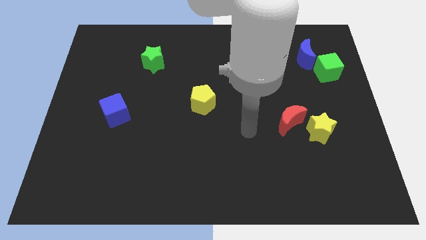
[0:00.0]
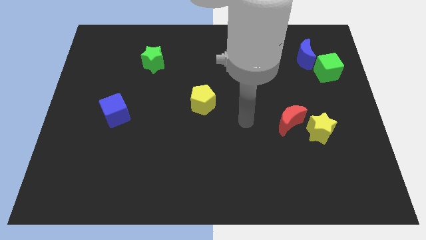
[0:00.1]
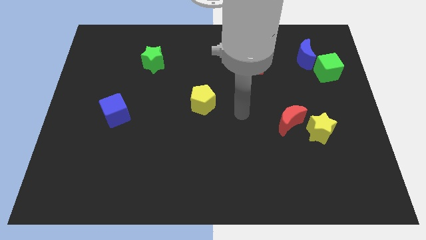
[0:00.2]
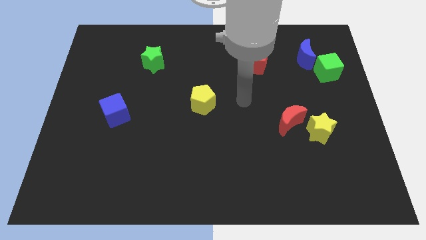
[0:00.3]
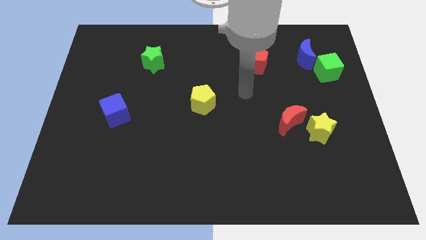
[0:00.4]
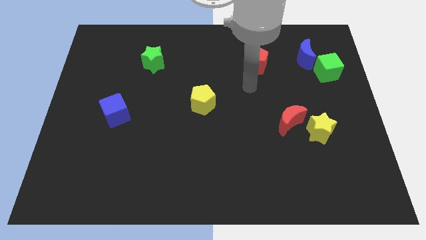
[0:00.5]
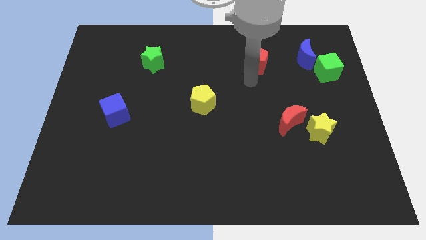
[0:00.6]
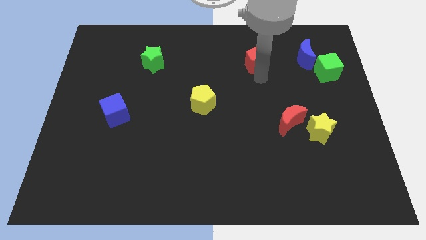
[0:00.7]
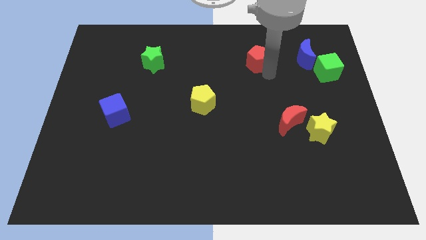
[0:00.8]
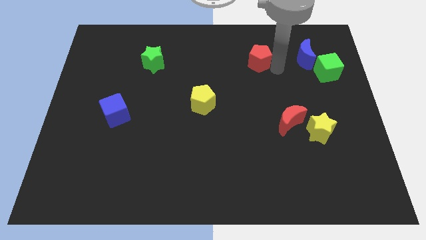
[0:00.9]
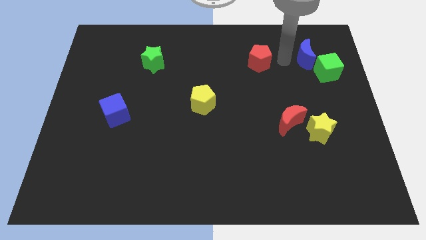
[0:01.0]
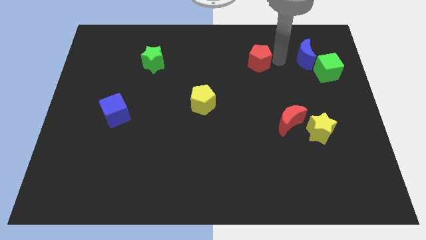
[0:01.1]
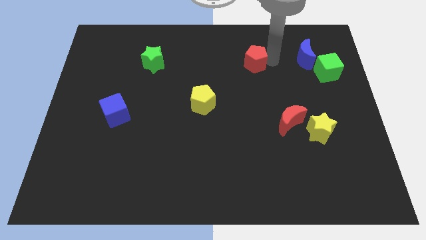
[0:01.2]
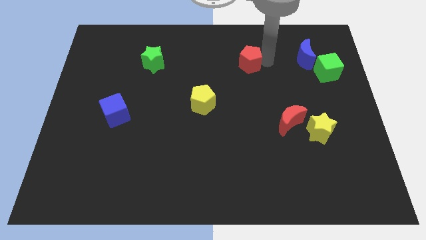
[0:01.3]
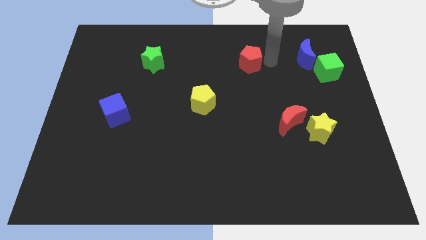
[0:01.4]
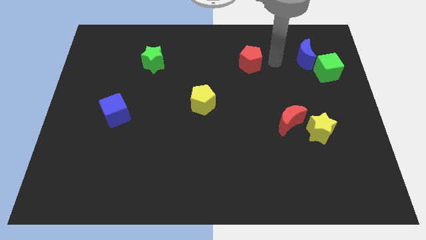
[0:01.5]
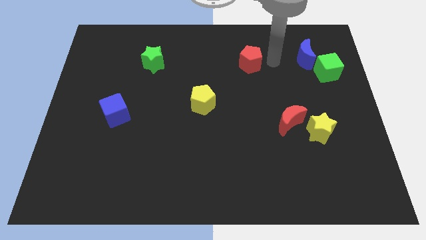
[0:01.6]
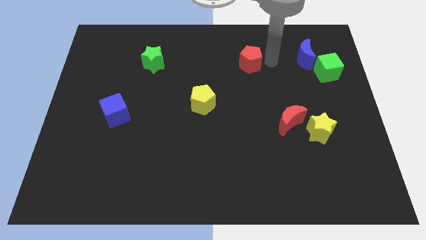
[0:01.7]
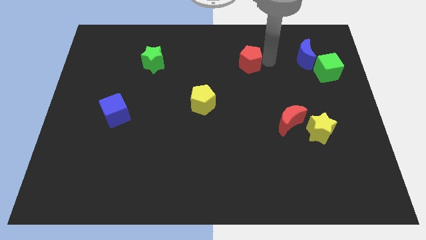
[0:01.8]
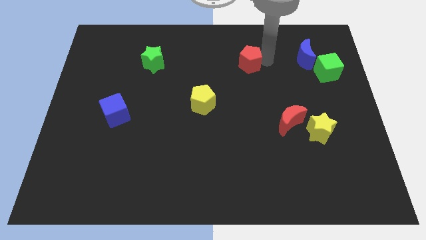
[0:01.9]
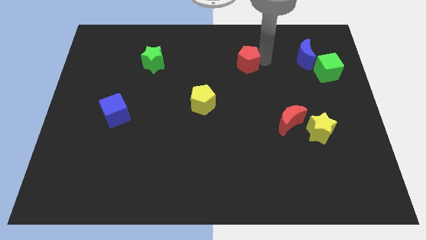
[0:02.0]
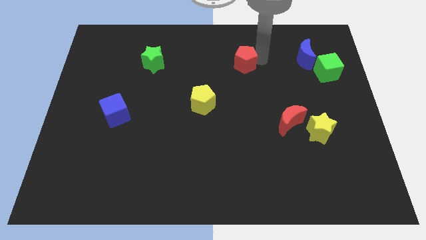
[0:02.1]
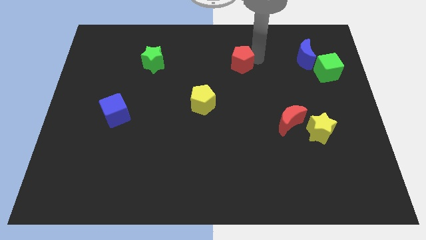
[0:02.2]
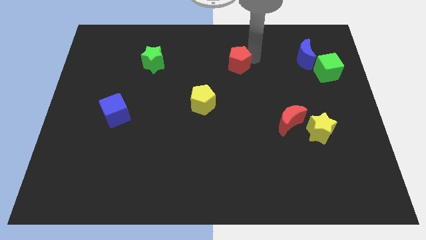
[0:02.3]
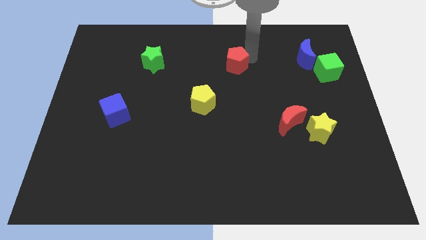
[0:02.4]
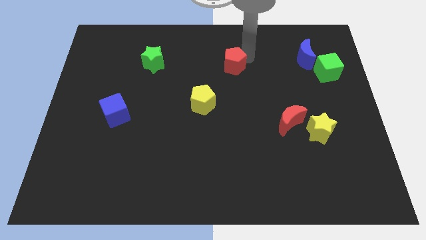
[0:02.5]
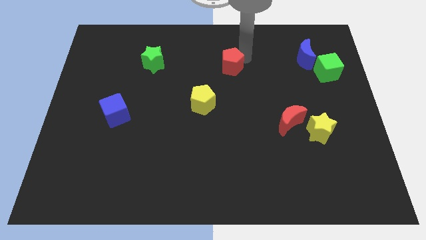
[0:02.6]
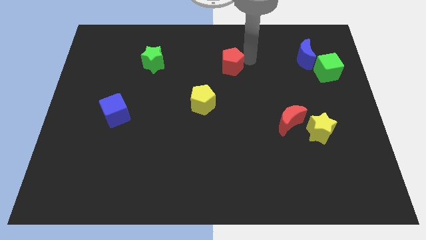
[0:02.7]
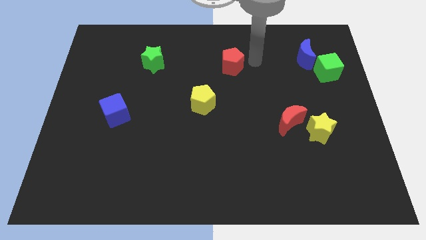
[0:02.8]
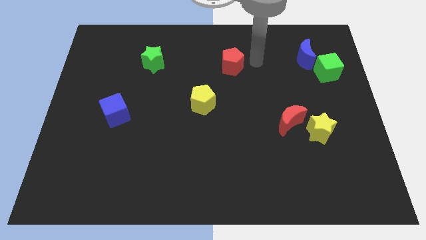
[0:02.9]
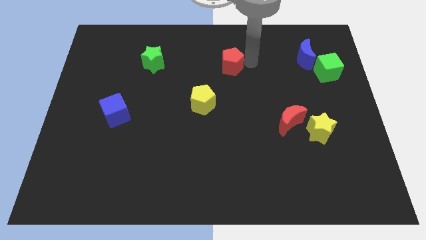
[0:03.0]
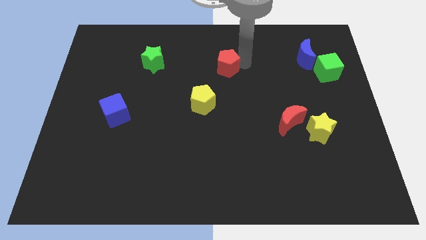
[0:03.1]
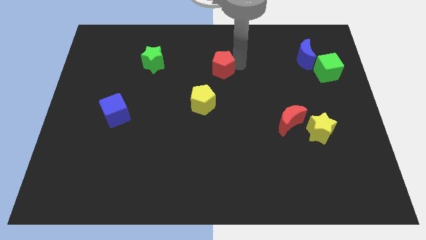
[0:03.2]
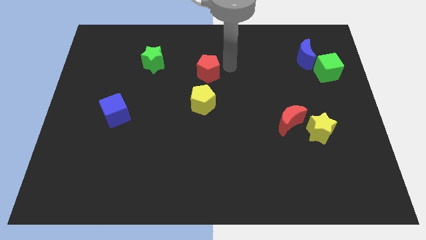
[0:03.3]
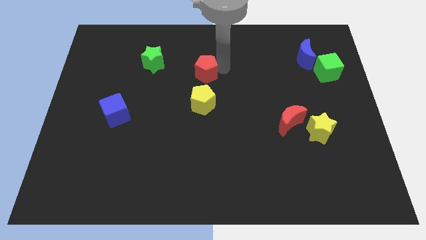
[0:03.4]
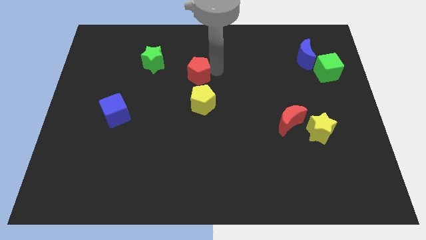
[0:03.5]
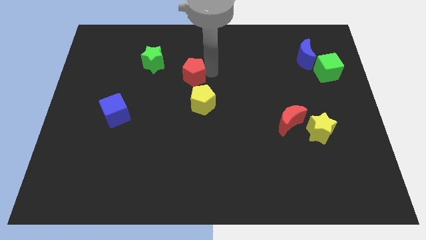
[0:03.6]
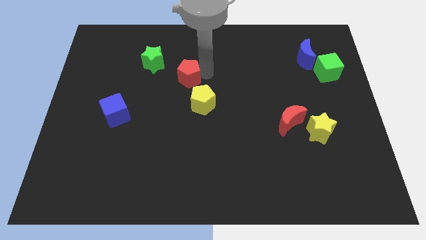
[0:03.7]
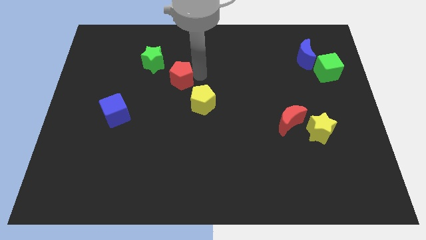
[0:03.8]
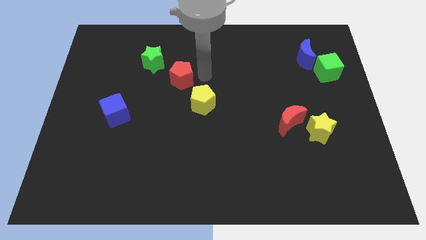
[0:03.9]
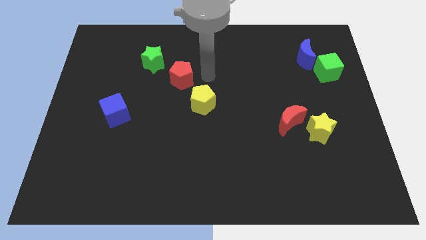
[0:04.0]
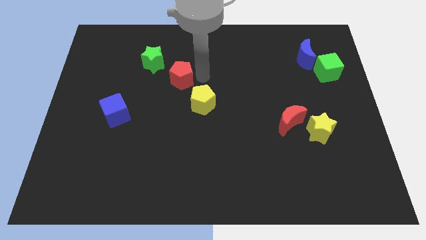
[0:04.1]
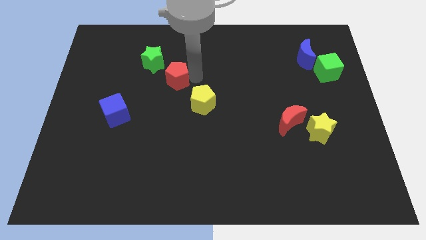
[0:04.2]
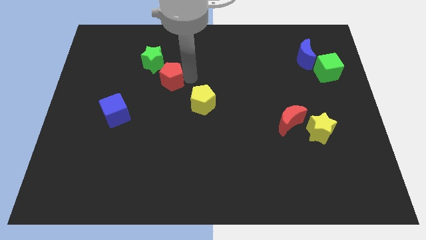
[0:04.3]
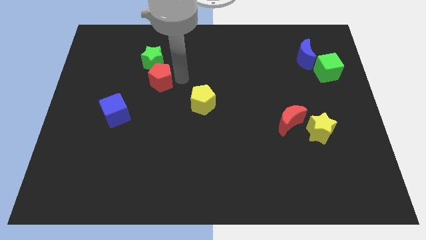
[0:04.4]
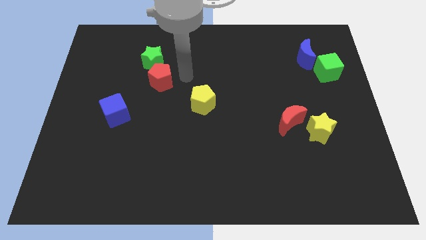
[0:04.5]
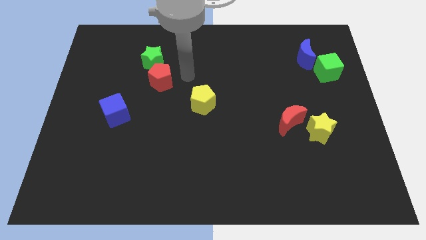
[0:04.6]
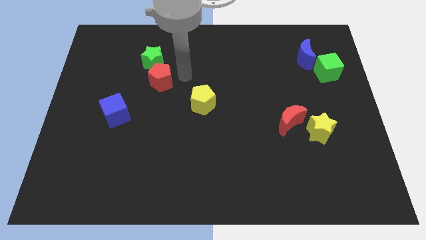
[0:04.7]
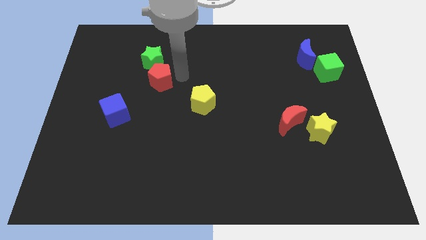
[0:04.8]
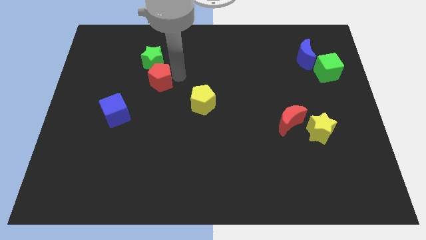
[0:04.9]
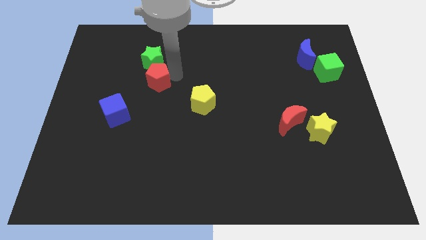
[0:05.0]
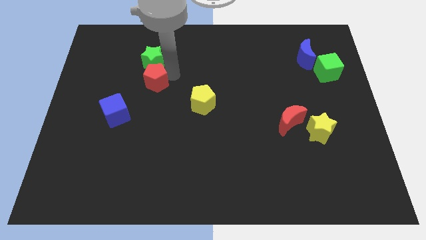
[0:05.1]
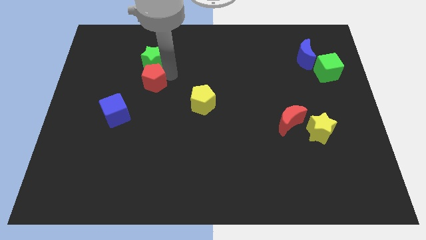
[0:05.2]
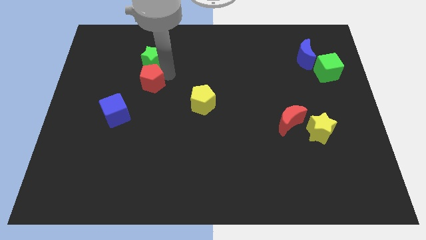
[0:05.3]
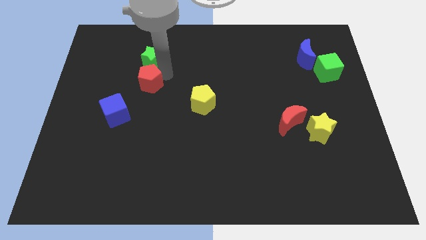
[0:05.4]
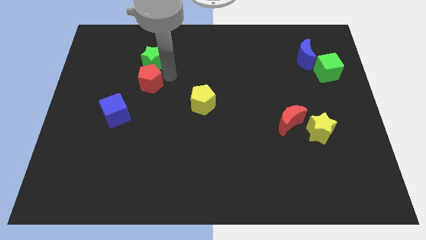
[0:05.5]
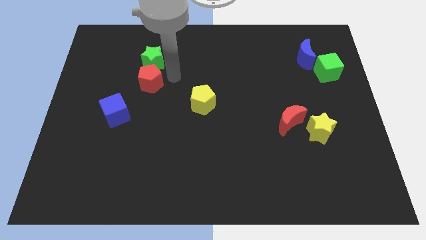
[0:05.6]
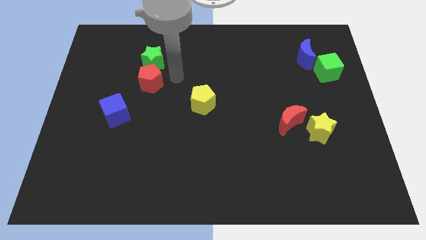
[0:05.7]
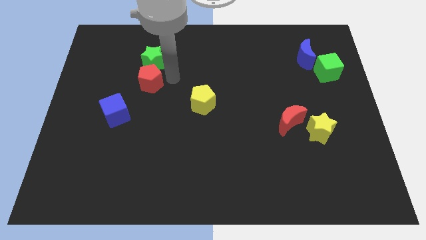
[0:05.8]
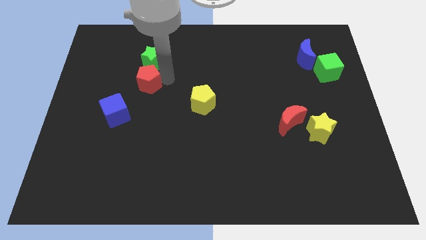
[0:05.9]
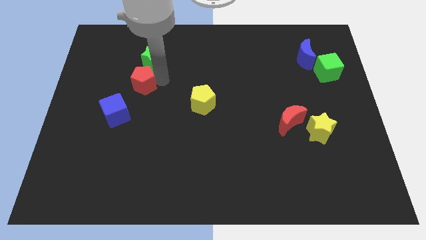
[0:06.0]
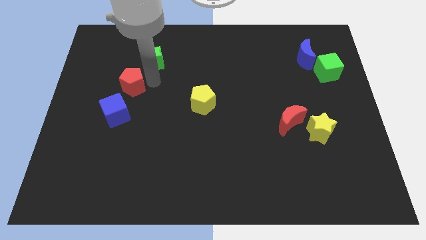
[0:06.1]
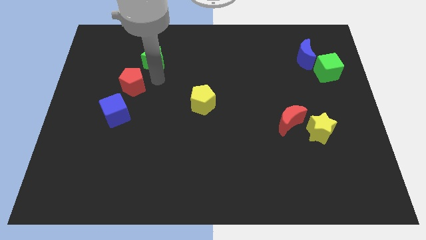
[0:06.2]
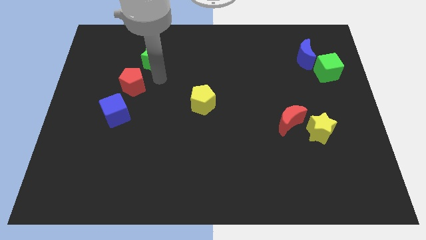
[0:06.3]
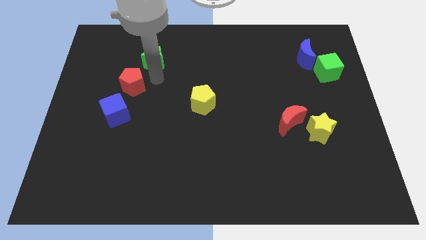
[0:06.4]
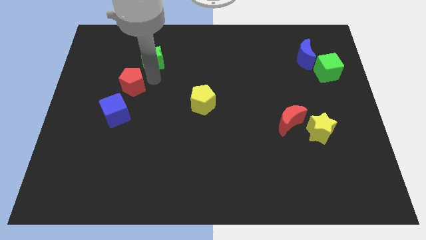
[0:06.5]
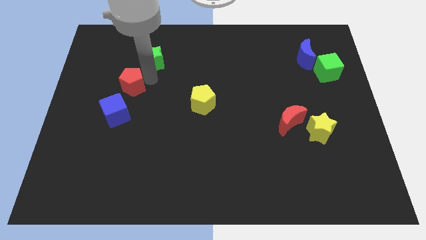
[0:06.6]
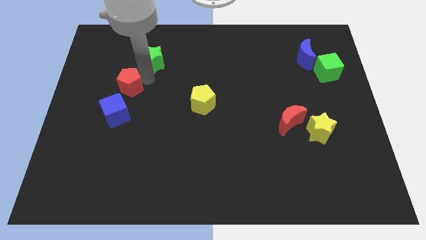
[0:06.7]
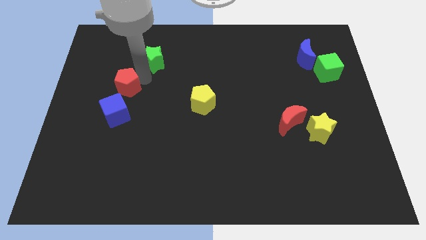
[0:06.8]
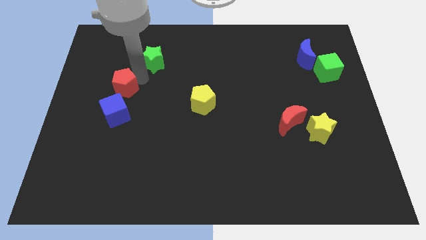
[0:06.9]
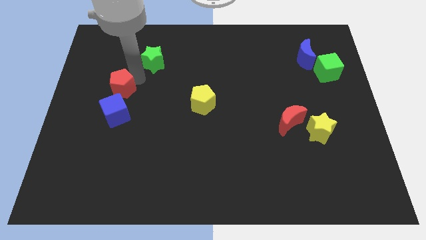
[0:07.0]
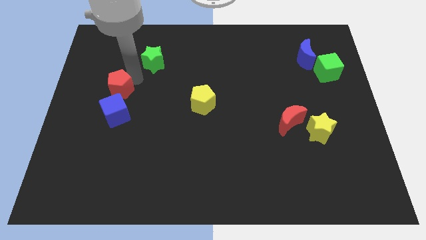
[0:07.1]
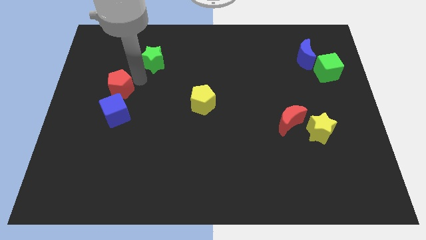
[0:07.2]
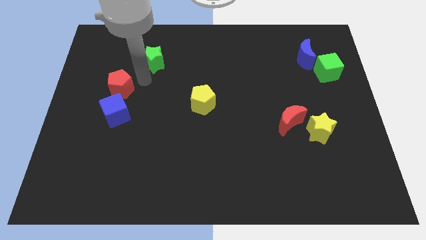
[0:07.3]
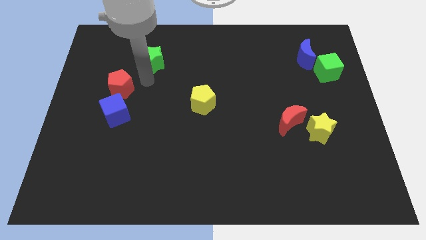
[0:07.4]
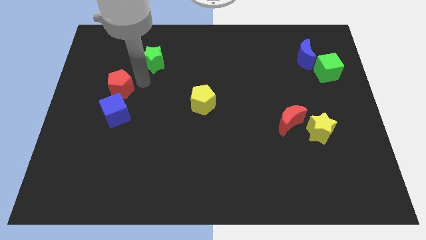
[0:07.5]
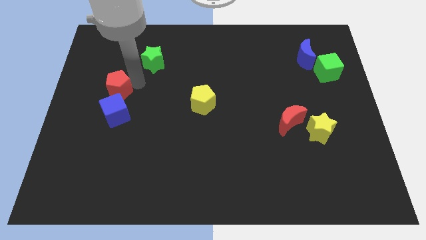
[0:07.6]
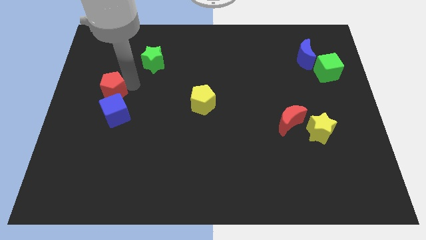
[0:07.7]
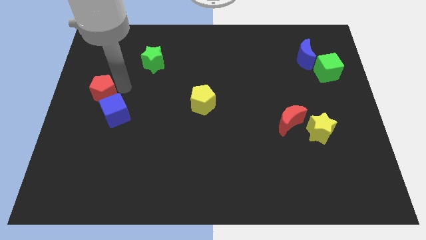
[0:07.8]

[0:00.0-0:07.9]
put the red pentagon to the left side of the board
